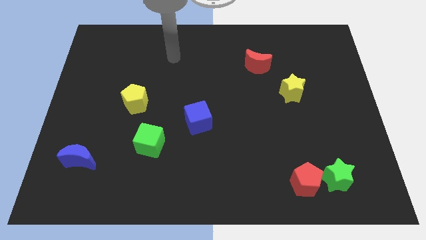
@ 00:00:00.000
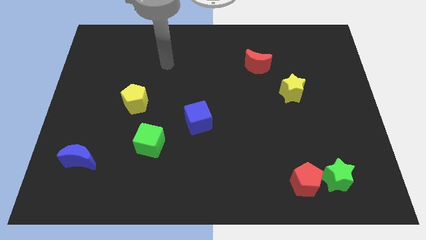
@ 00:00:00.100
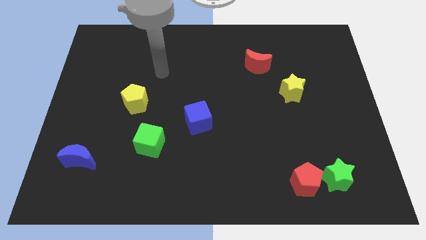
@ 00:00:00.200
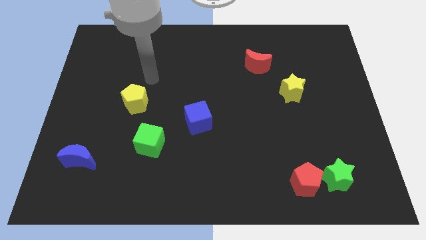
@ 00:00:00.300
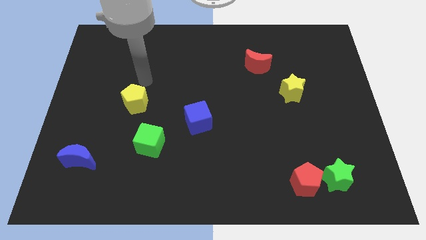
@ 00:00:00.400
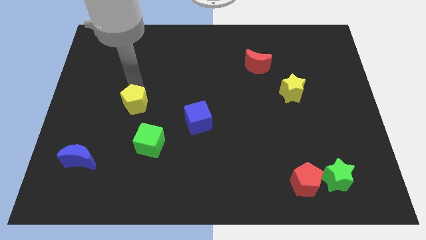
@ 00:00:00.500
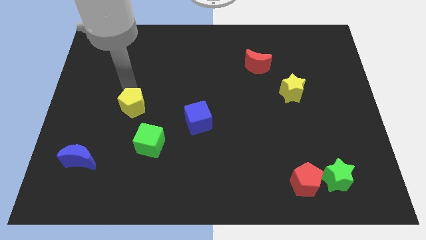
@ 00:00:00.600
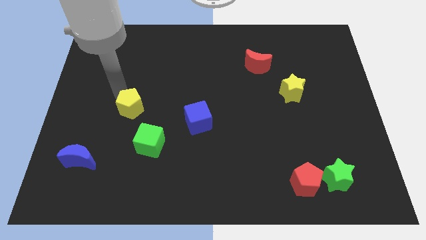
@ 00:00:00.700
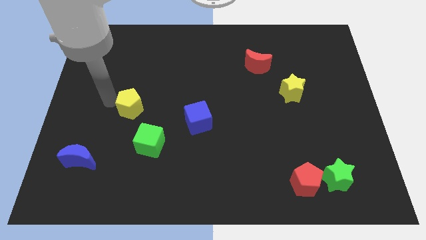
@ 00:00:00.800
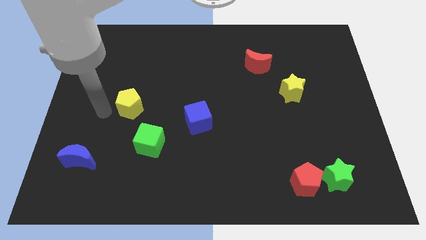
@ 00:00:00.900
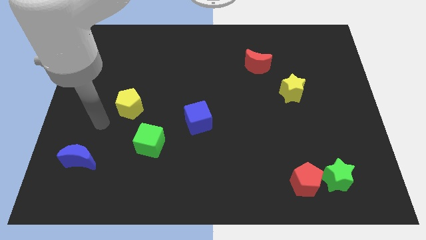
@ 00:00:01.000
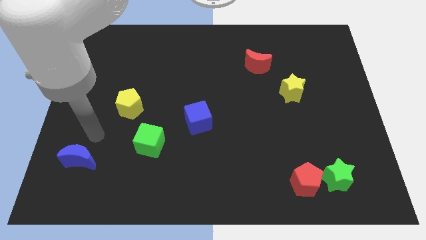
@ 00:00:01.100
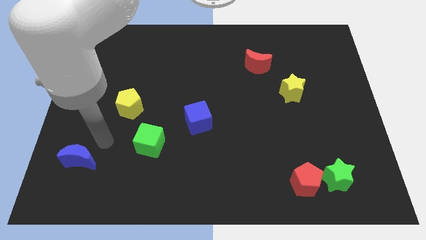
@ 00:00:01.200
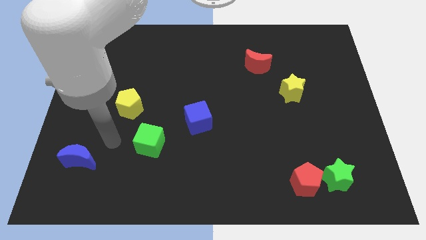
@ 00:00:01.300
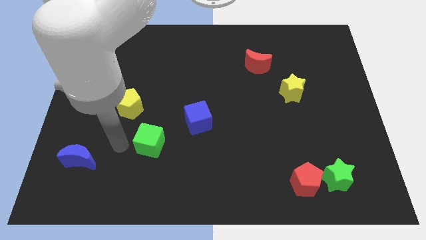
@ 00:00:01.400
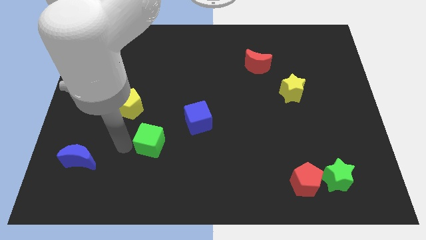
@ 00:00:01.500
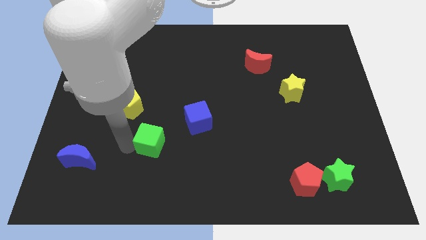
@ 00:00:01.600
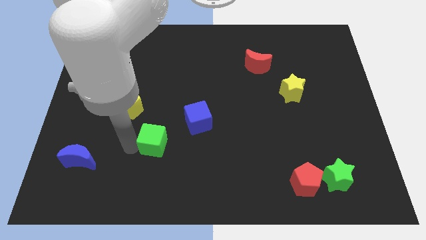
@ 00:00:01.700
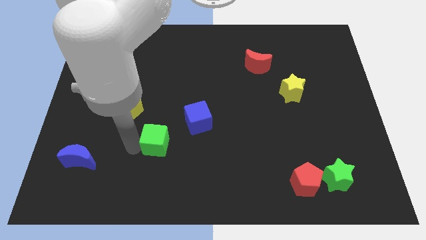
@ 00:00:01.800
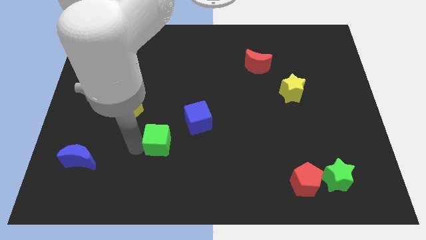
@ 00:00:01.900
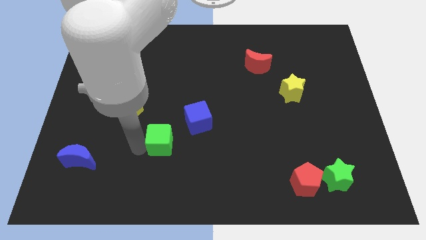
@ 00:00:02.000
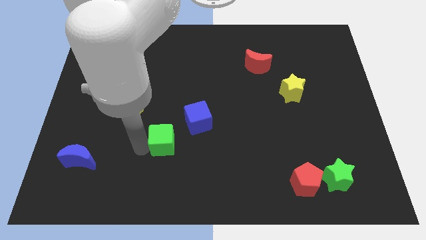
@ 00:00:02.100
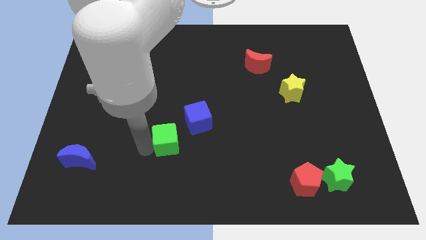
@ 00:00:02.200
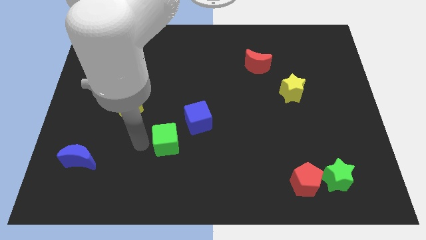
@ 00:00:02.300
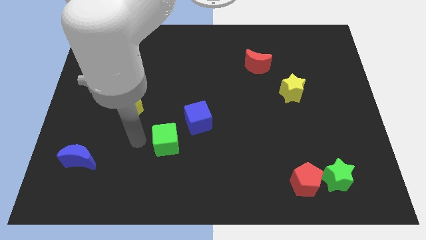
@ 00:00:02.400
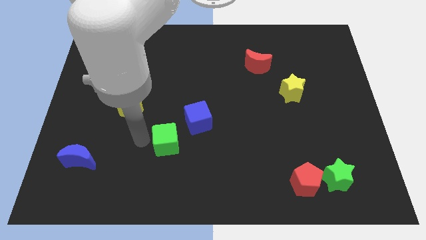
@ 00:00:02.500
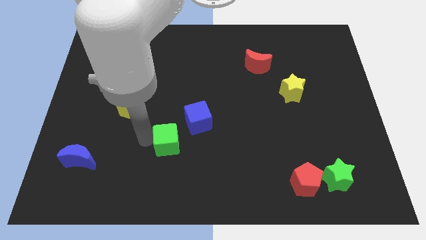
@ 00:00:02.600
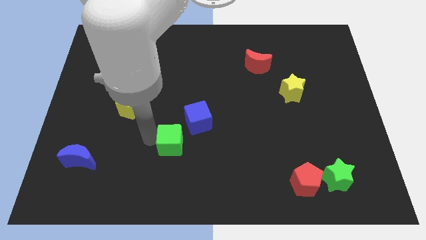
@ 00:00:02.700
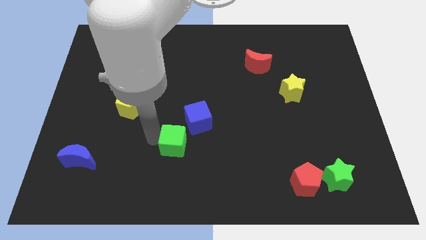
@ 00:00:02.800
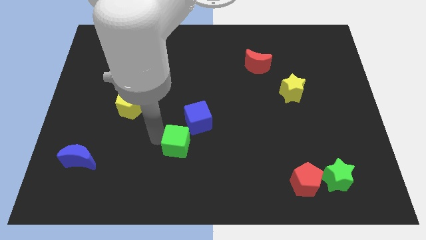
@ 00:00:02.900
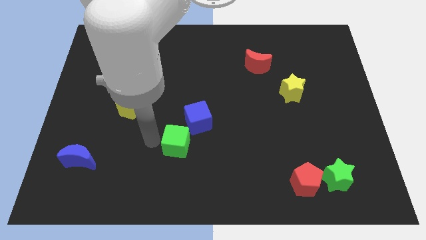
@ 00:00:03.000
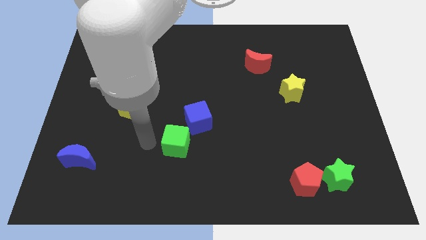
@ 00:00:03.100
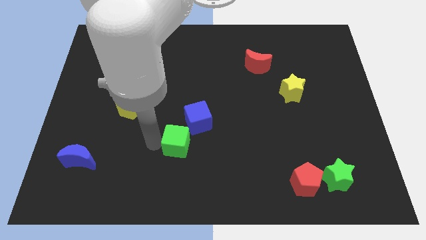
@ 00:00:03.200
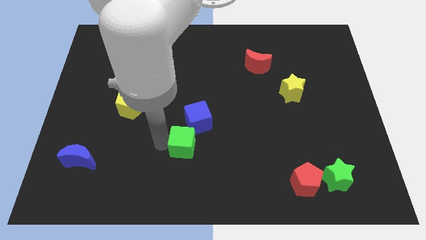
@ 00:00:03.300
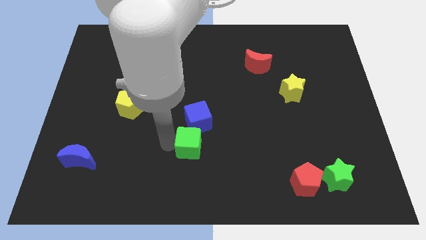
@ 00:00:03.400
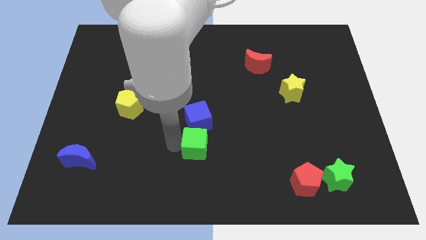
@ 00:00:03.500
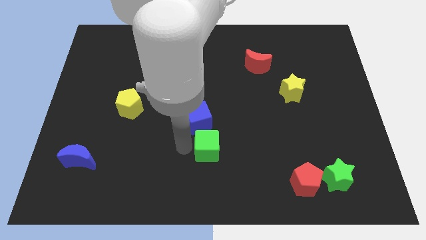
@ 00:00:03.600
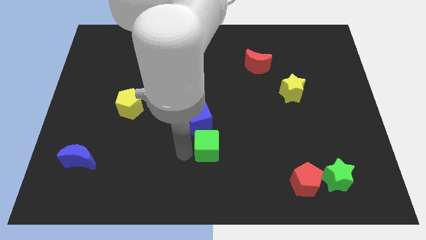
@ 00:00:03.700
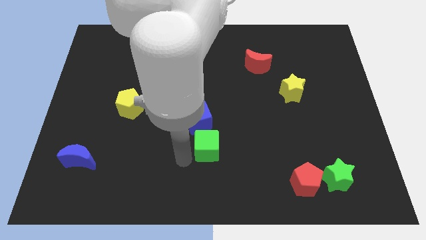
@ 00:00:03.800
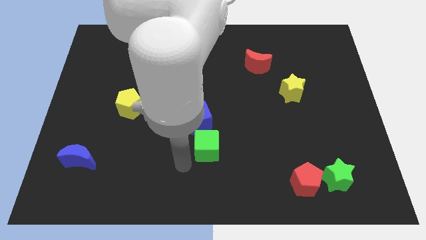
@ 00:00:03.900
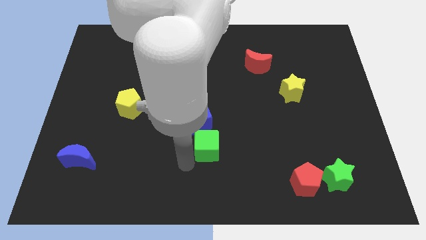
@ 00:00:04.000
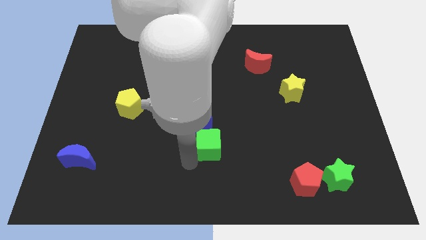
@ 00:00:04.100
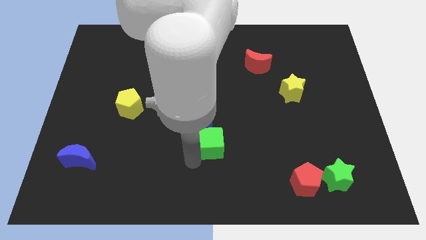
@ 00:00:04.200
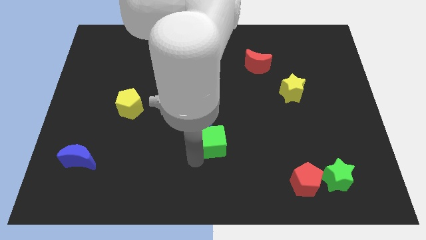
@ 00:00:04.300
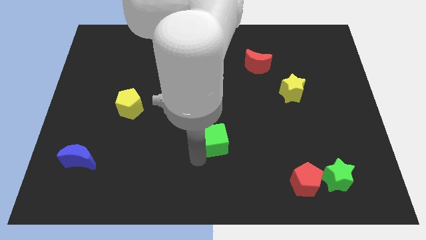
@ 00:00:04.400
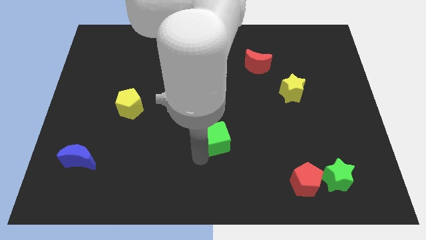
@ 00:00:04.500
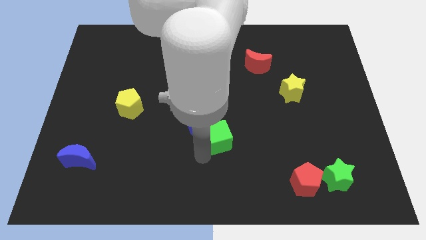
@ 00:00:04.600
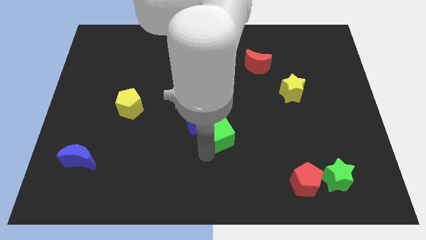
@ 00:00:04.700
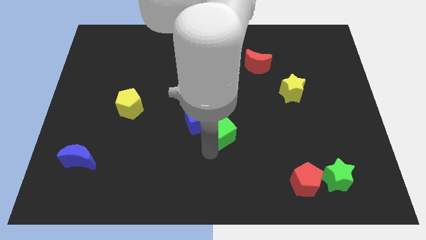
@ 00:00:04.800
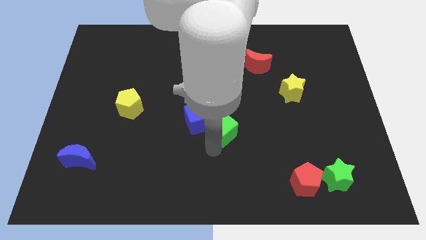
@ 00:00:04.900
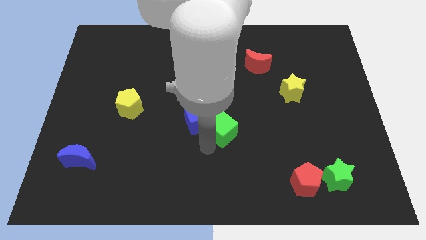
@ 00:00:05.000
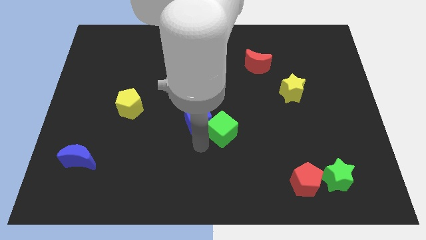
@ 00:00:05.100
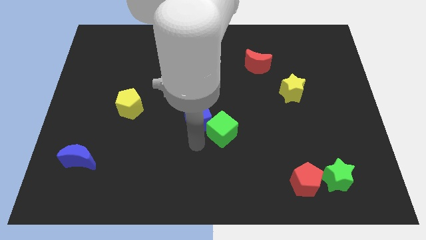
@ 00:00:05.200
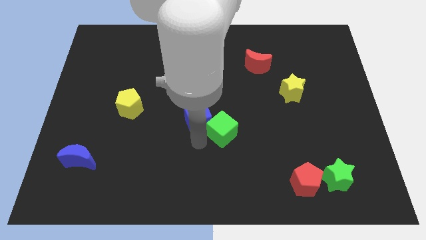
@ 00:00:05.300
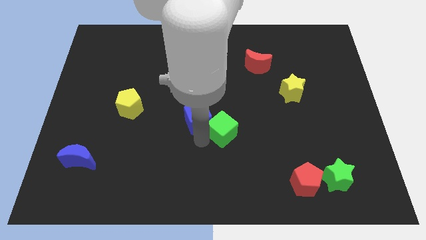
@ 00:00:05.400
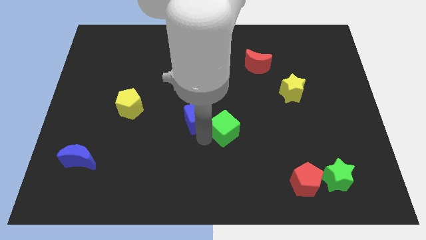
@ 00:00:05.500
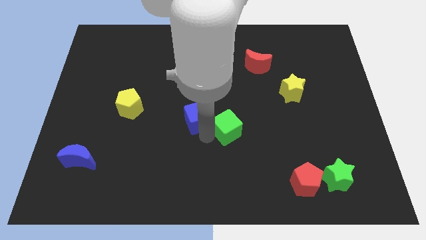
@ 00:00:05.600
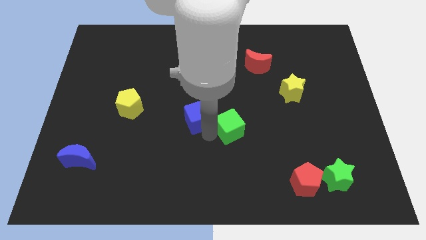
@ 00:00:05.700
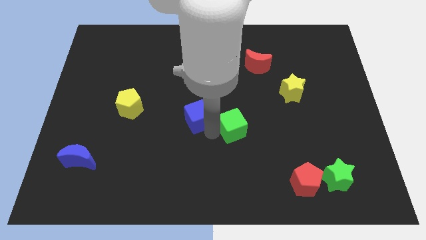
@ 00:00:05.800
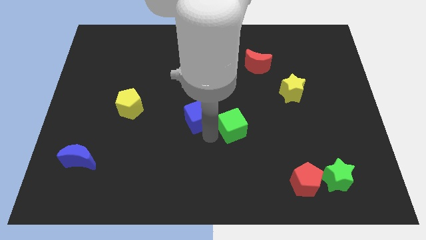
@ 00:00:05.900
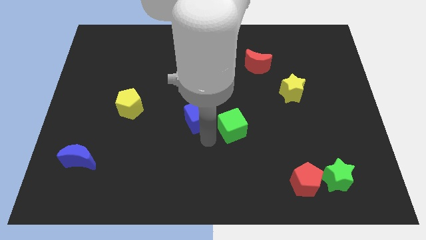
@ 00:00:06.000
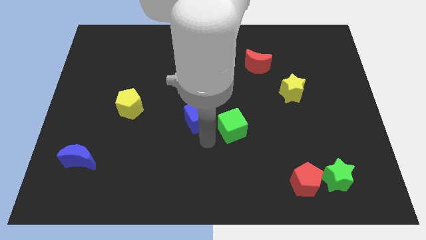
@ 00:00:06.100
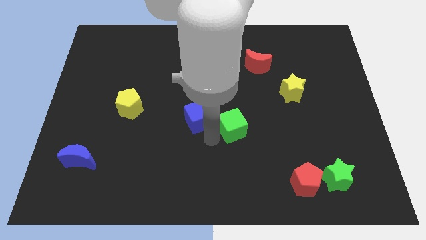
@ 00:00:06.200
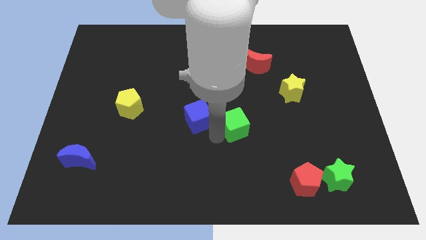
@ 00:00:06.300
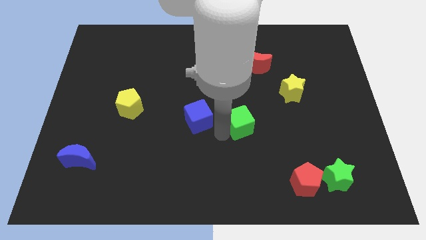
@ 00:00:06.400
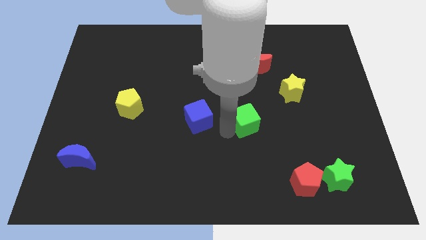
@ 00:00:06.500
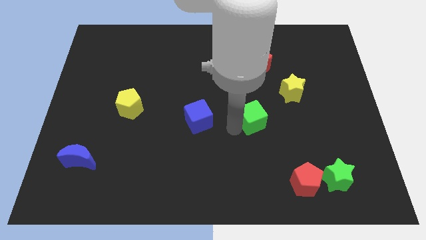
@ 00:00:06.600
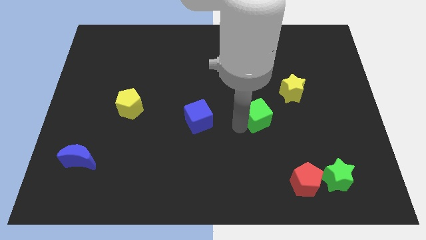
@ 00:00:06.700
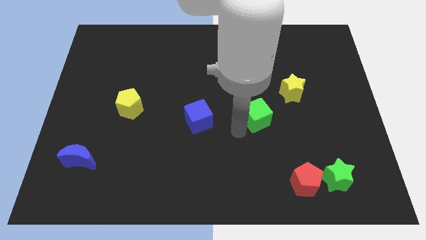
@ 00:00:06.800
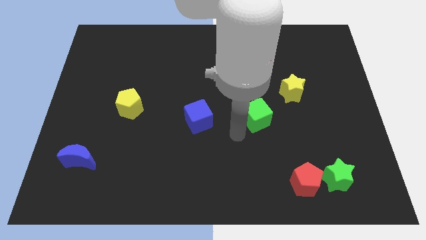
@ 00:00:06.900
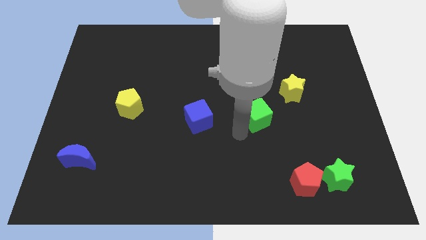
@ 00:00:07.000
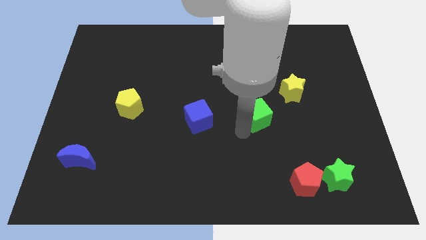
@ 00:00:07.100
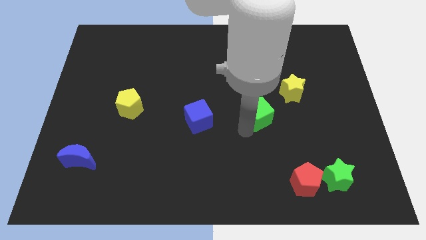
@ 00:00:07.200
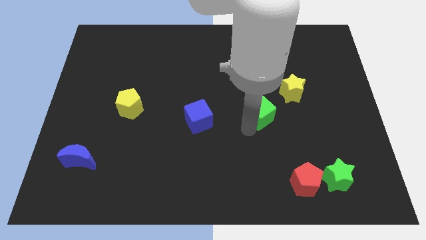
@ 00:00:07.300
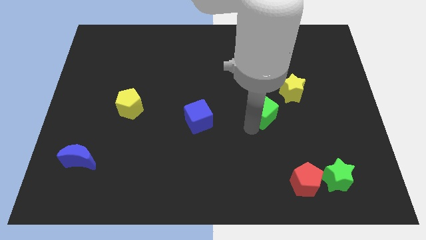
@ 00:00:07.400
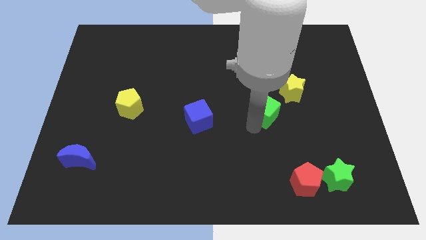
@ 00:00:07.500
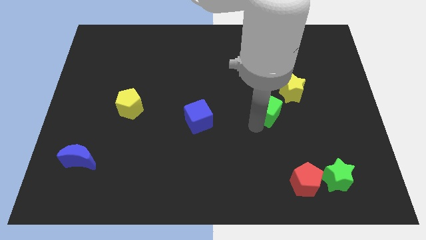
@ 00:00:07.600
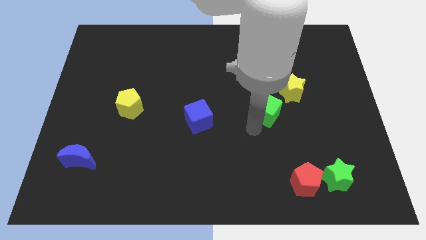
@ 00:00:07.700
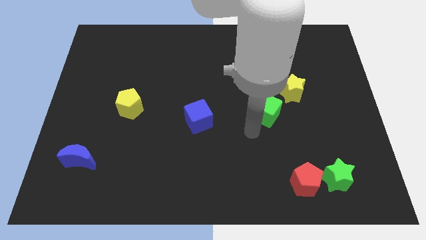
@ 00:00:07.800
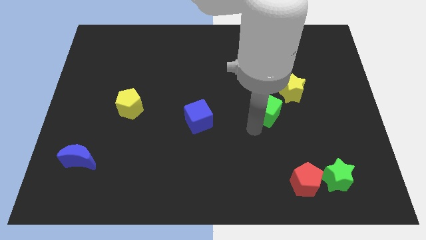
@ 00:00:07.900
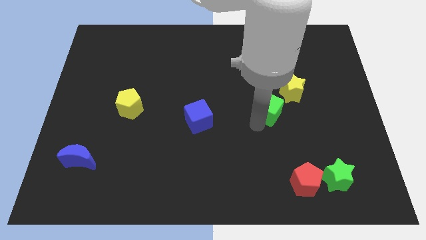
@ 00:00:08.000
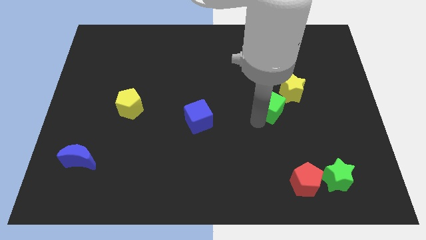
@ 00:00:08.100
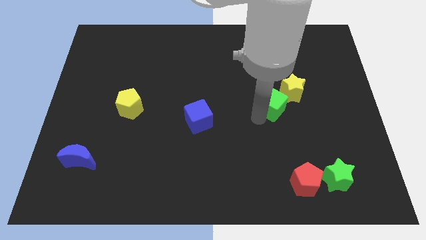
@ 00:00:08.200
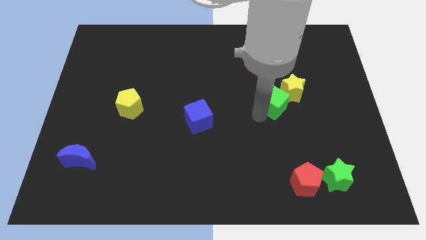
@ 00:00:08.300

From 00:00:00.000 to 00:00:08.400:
move the green cube to the yellow star
